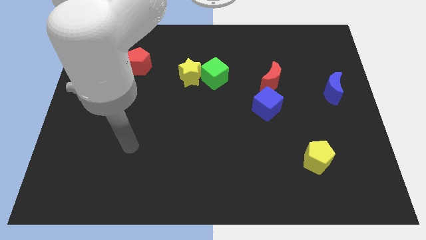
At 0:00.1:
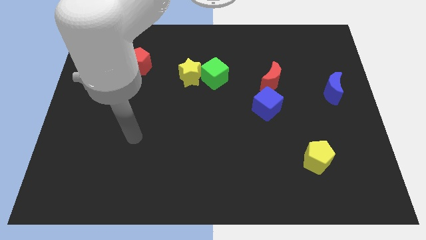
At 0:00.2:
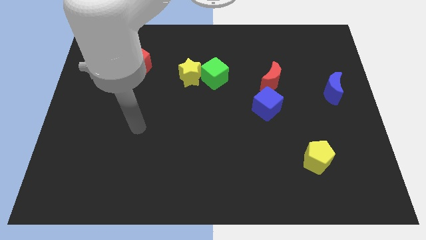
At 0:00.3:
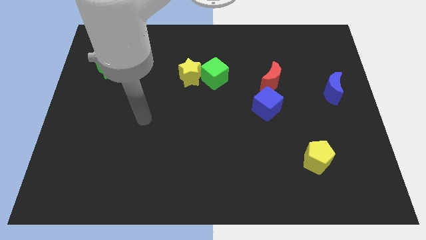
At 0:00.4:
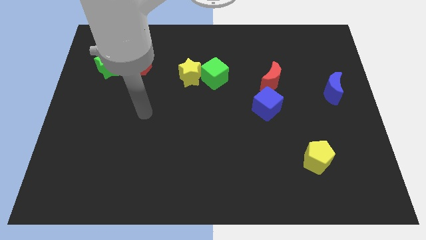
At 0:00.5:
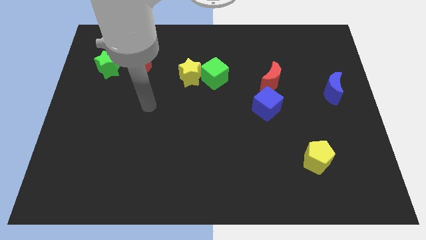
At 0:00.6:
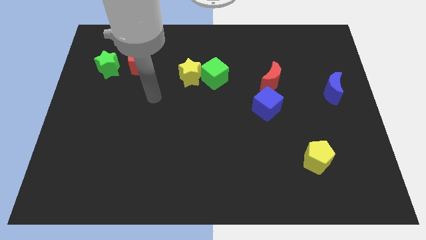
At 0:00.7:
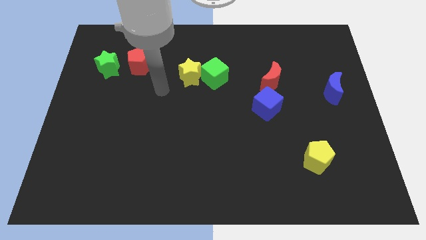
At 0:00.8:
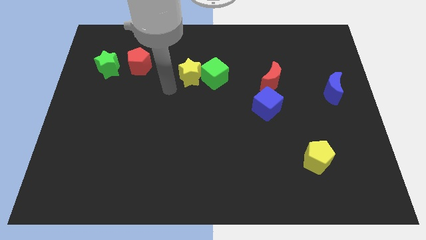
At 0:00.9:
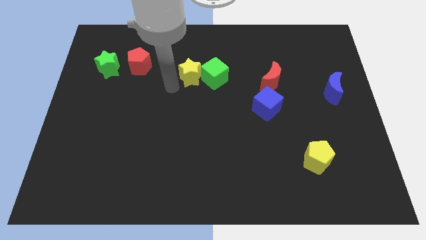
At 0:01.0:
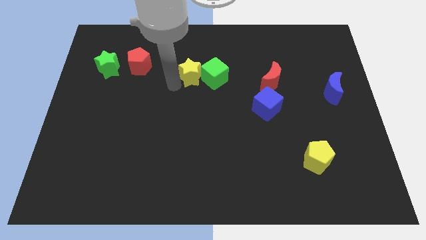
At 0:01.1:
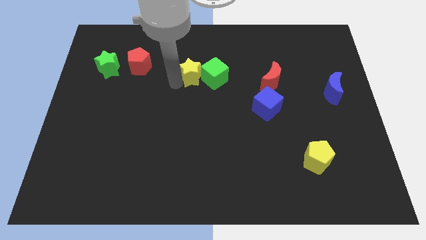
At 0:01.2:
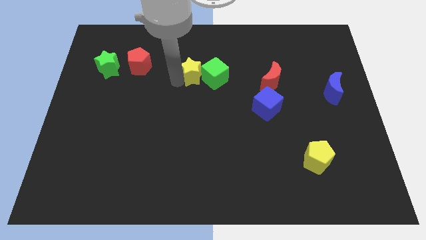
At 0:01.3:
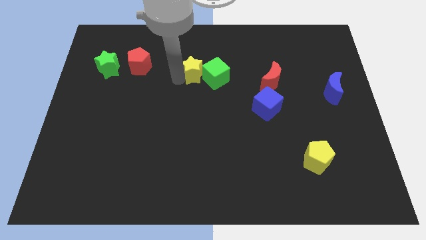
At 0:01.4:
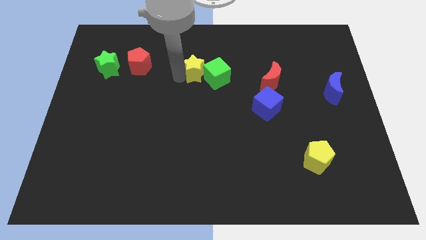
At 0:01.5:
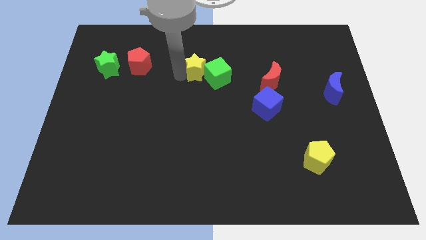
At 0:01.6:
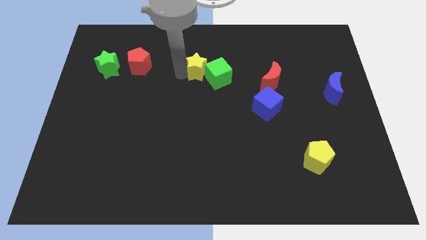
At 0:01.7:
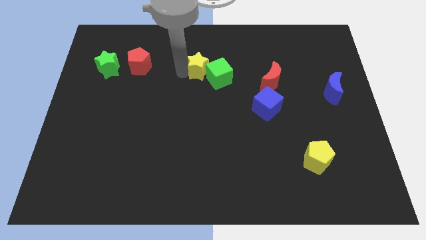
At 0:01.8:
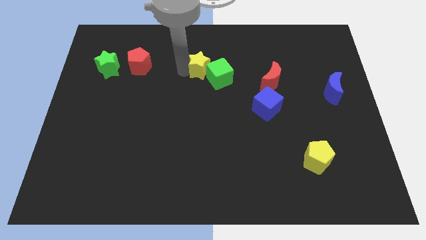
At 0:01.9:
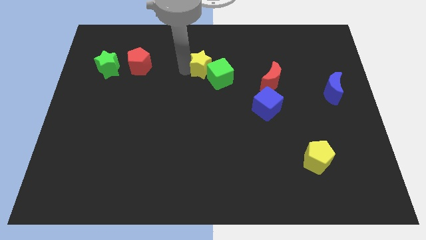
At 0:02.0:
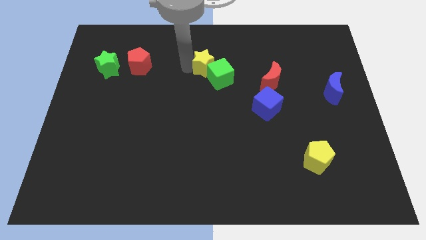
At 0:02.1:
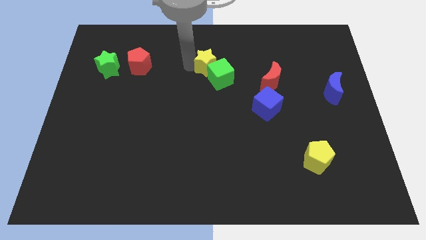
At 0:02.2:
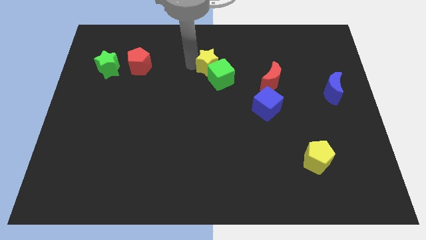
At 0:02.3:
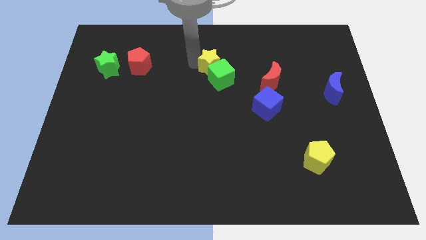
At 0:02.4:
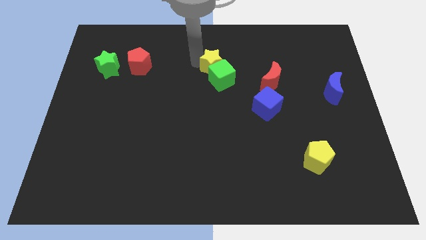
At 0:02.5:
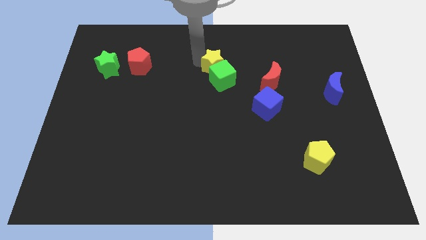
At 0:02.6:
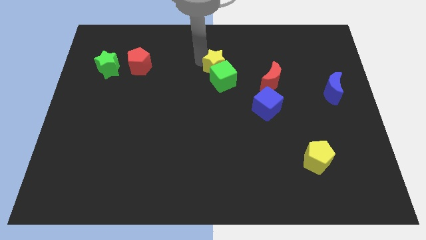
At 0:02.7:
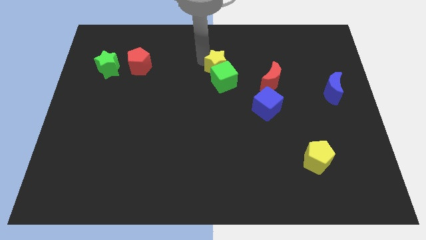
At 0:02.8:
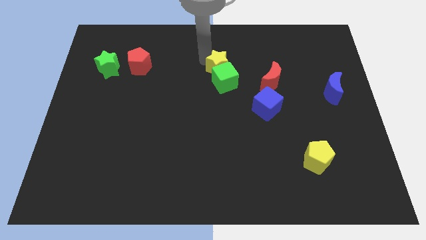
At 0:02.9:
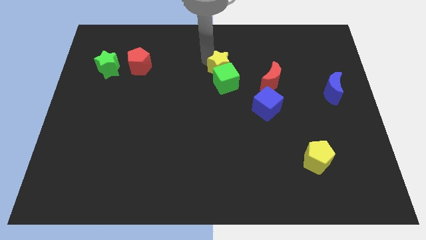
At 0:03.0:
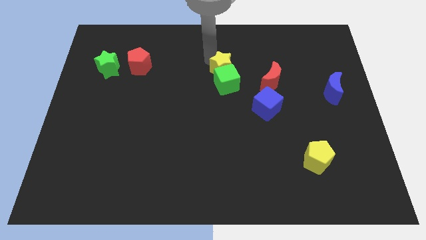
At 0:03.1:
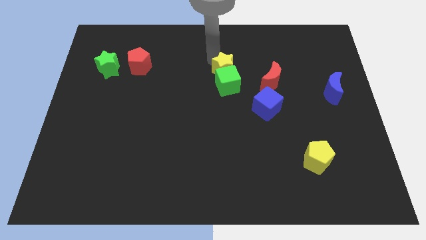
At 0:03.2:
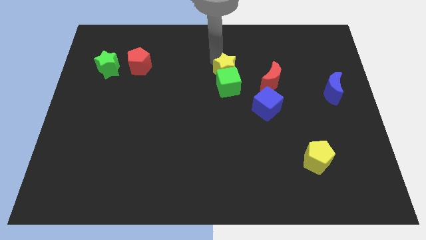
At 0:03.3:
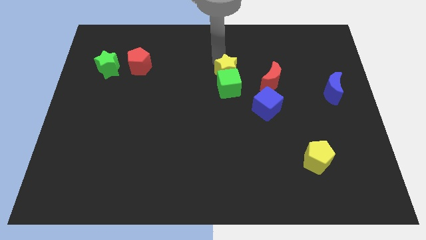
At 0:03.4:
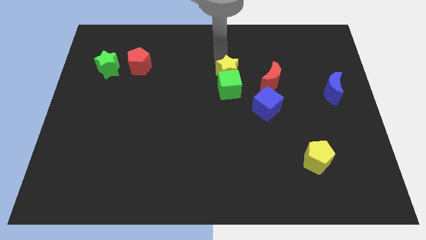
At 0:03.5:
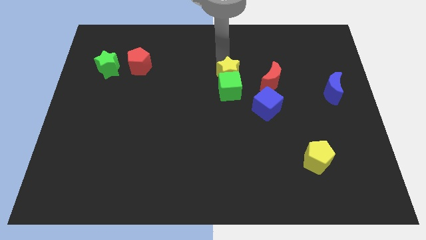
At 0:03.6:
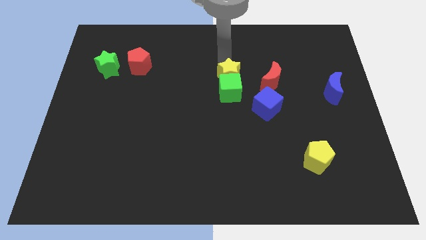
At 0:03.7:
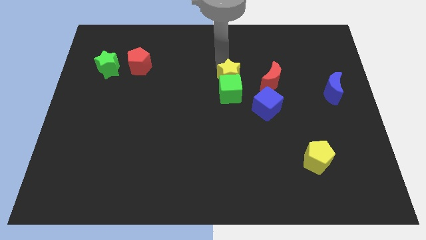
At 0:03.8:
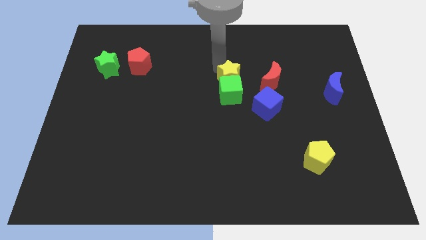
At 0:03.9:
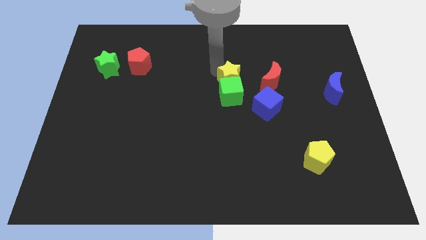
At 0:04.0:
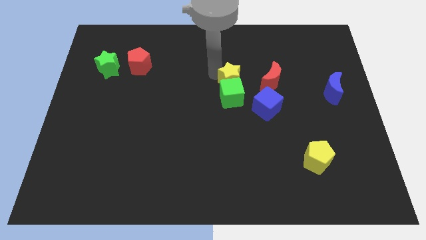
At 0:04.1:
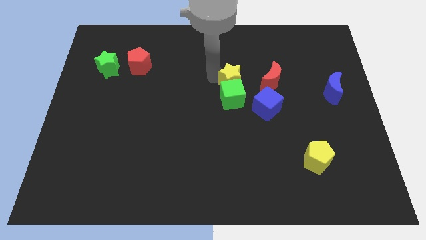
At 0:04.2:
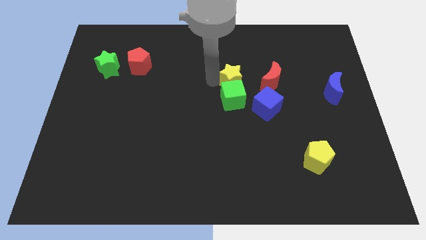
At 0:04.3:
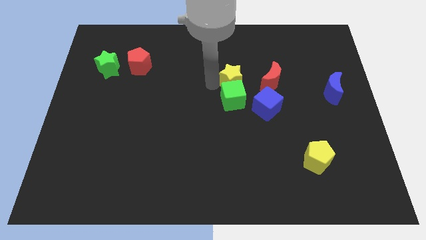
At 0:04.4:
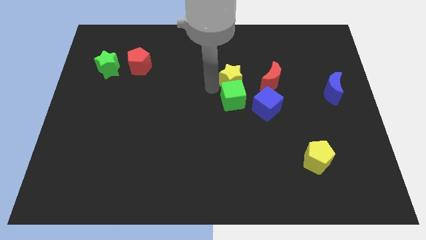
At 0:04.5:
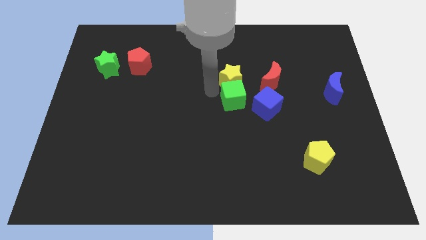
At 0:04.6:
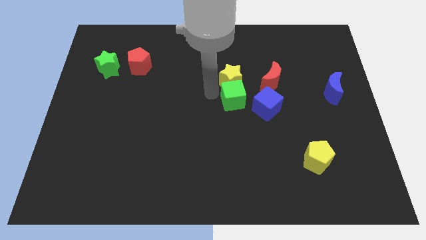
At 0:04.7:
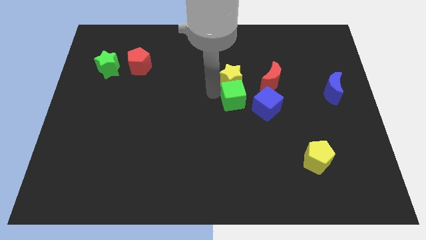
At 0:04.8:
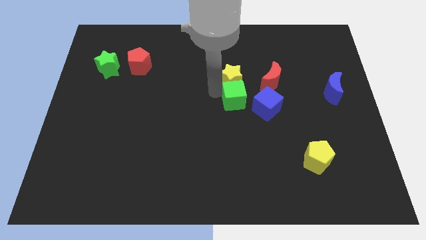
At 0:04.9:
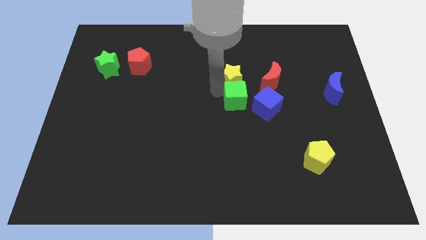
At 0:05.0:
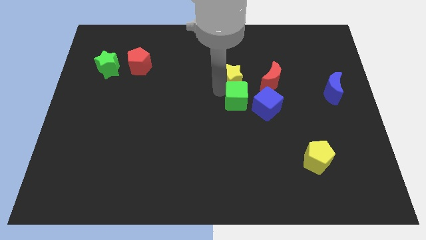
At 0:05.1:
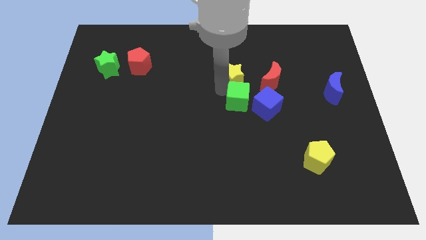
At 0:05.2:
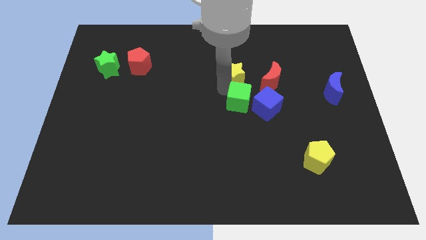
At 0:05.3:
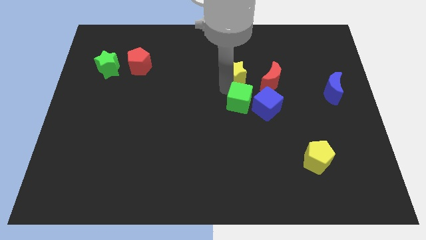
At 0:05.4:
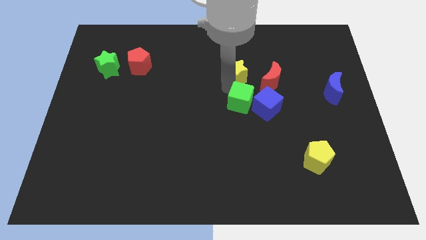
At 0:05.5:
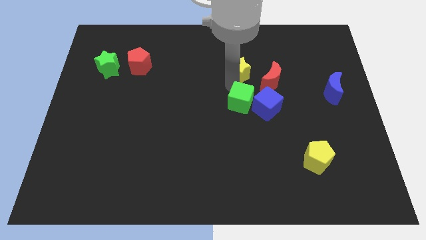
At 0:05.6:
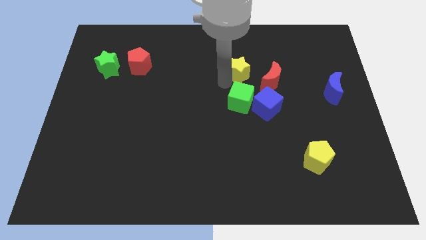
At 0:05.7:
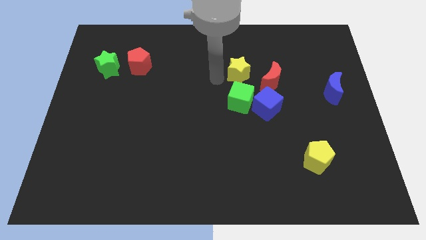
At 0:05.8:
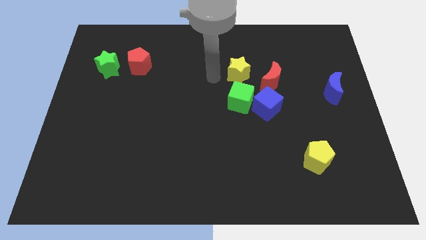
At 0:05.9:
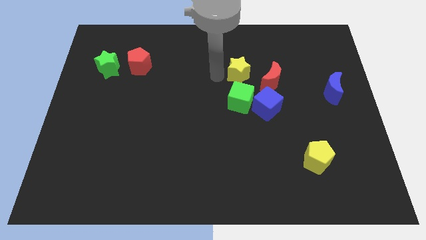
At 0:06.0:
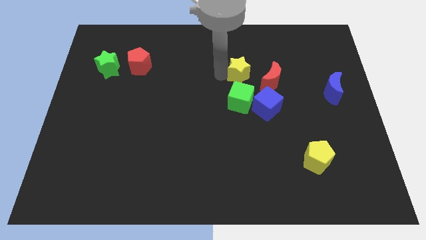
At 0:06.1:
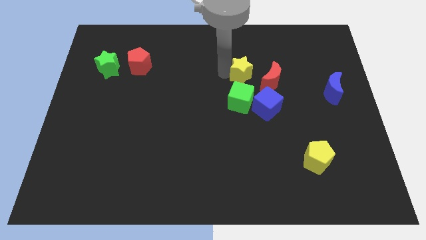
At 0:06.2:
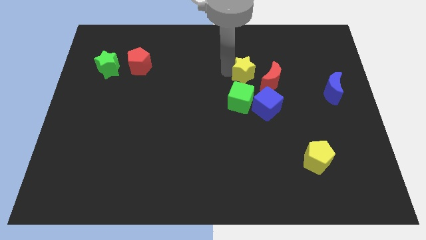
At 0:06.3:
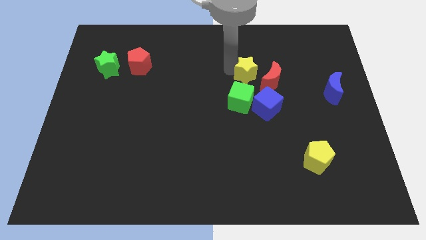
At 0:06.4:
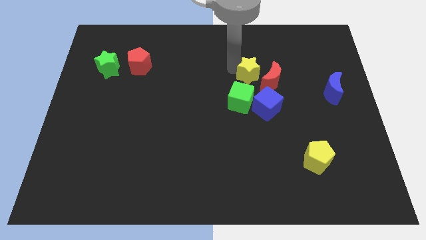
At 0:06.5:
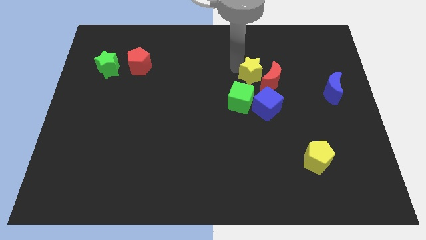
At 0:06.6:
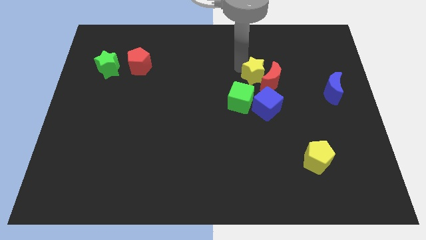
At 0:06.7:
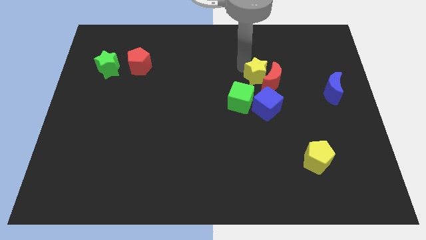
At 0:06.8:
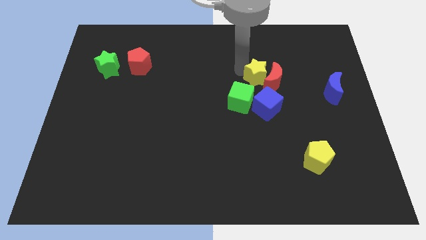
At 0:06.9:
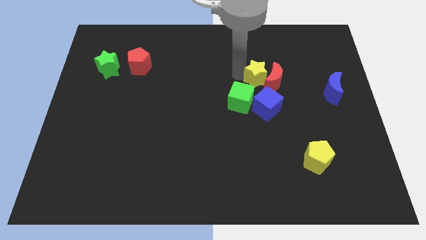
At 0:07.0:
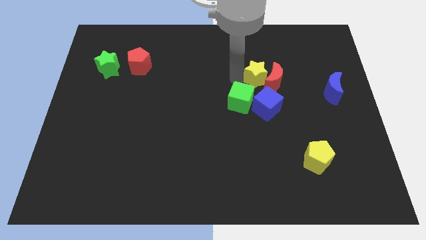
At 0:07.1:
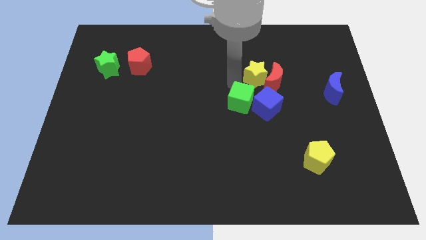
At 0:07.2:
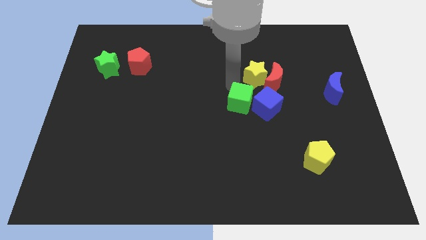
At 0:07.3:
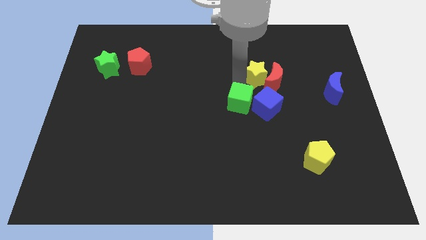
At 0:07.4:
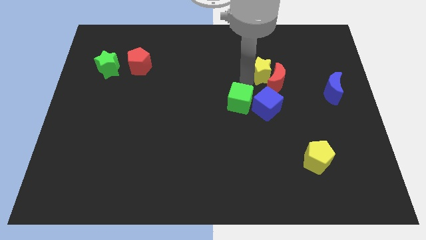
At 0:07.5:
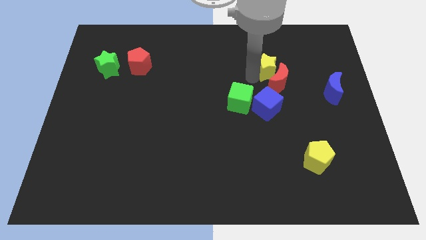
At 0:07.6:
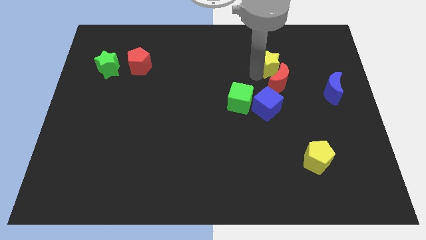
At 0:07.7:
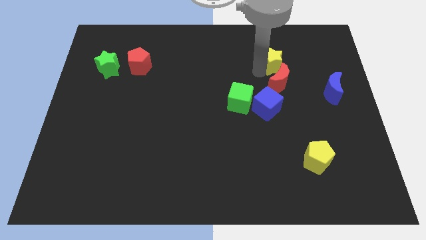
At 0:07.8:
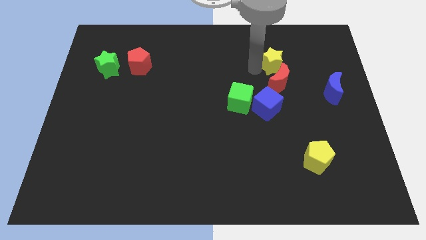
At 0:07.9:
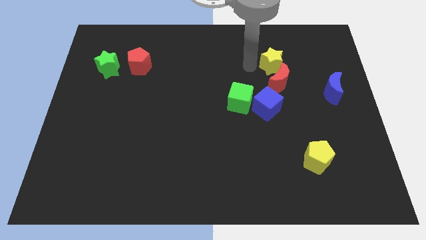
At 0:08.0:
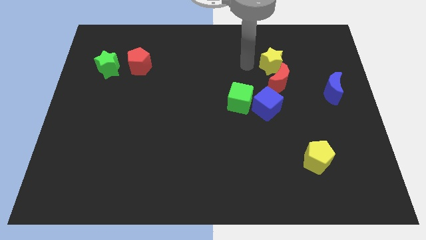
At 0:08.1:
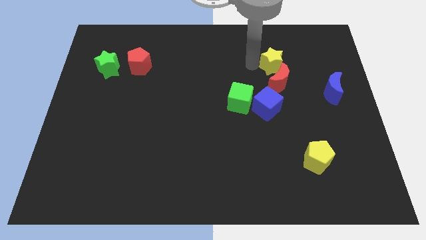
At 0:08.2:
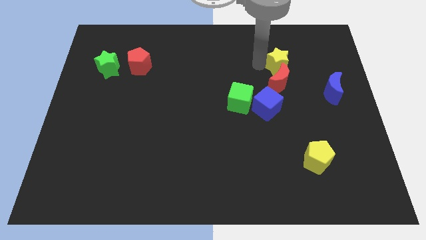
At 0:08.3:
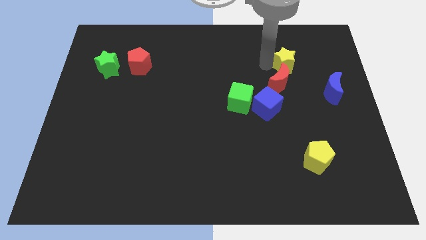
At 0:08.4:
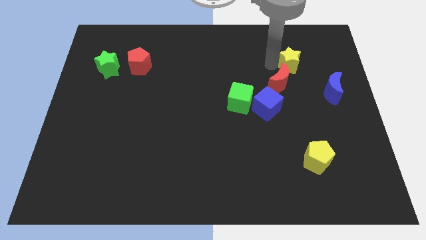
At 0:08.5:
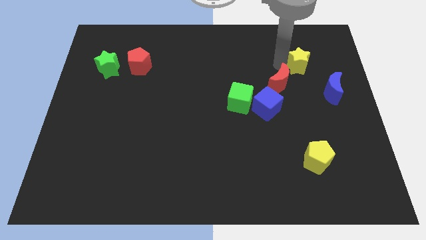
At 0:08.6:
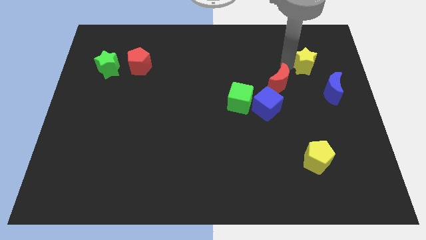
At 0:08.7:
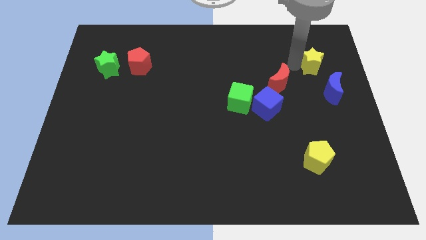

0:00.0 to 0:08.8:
slide the yellow star above the blue moon
